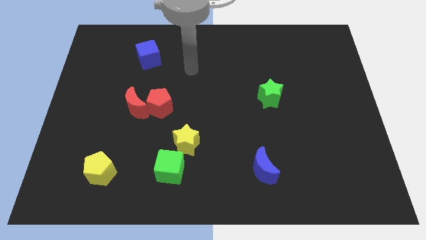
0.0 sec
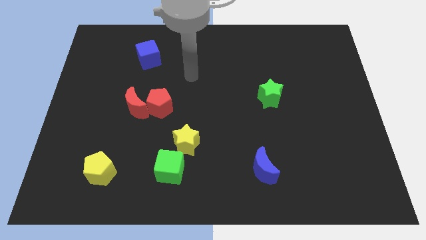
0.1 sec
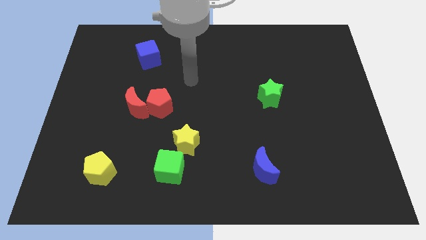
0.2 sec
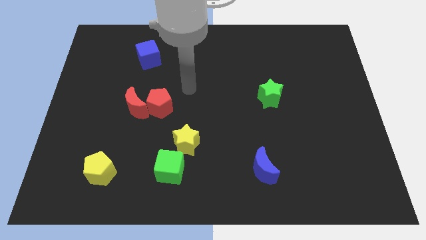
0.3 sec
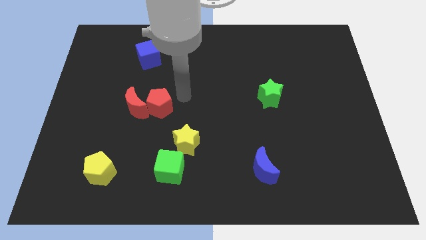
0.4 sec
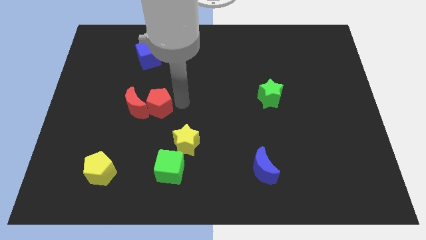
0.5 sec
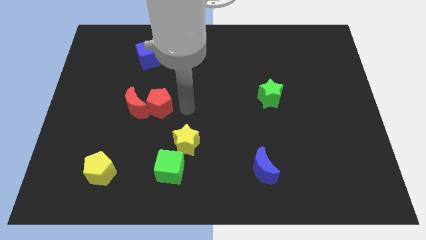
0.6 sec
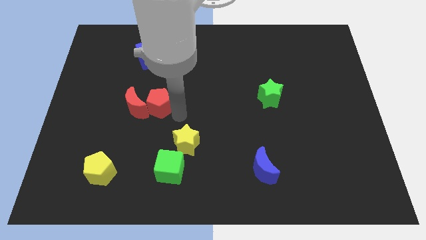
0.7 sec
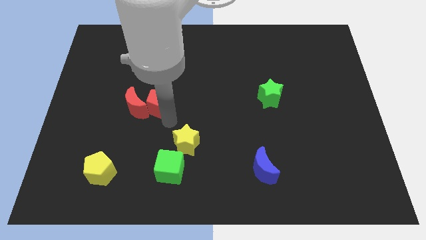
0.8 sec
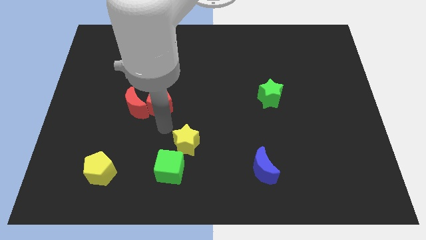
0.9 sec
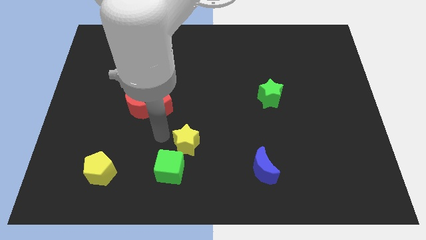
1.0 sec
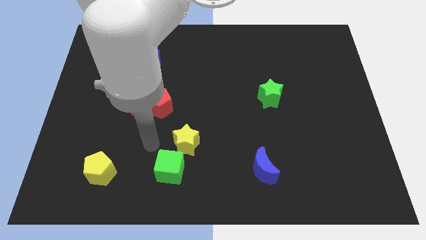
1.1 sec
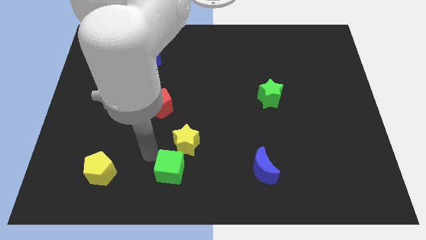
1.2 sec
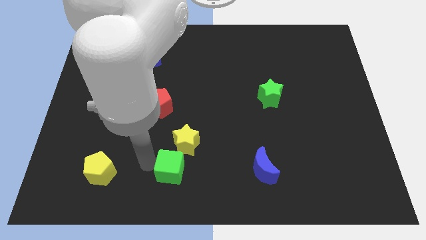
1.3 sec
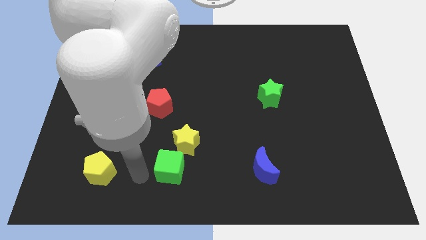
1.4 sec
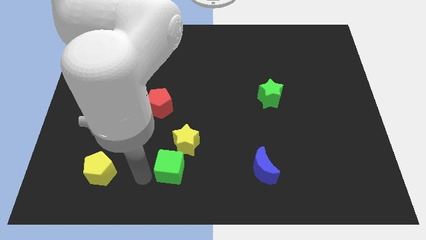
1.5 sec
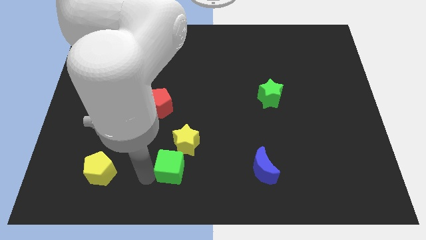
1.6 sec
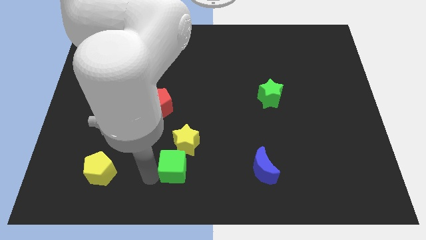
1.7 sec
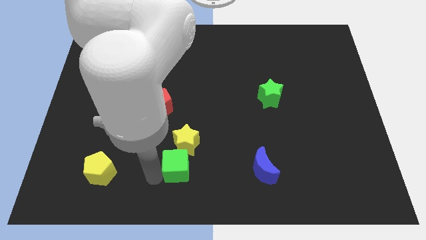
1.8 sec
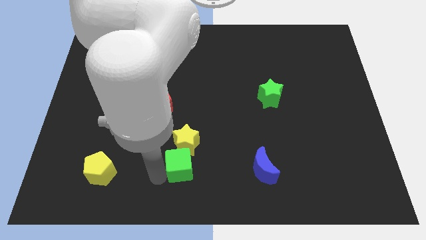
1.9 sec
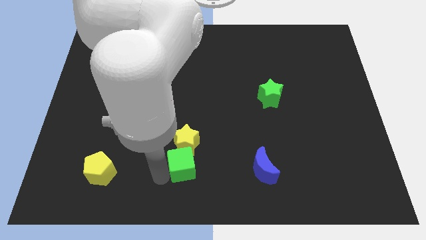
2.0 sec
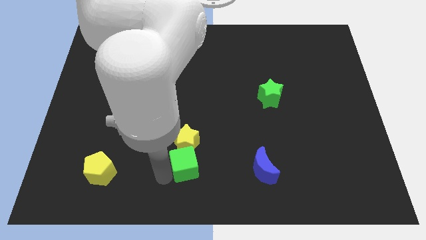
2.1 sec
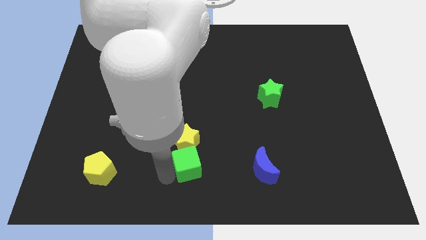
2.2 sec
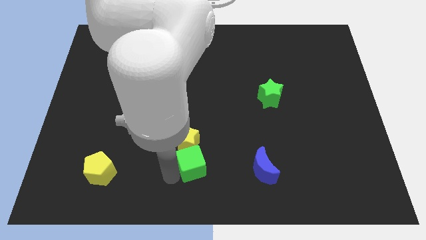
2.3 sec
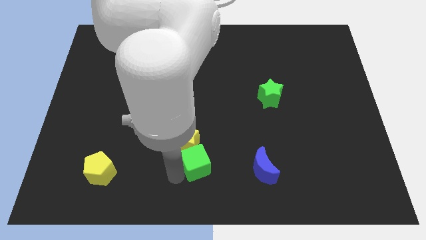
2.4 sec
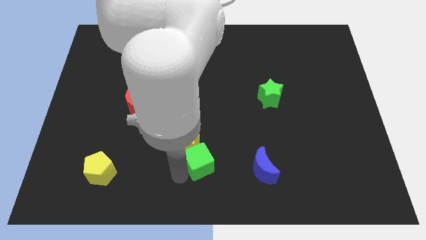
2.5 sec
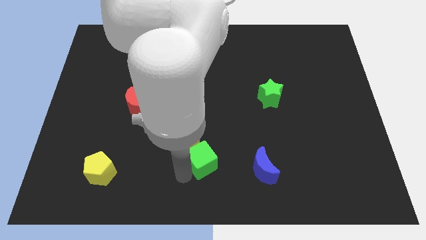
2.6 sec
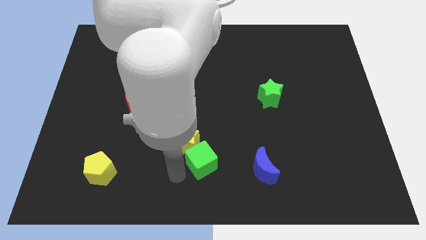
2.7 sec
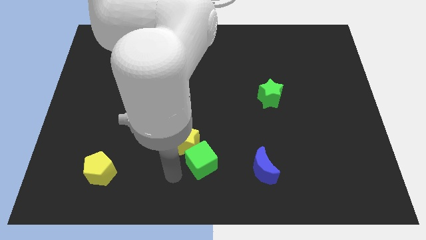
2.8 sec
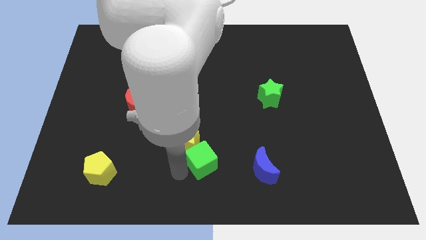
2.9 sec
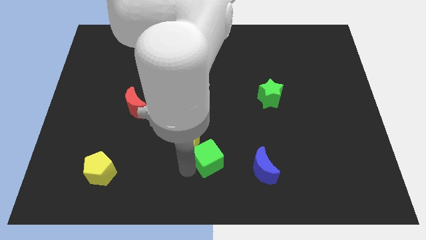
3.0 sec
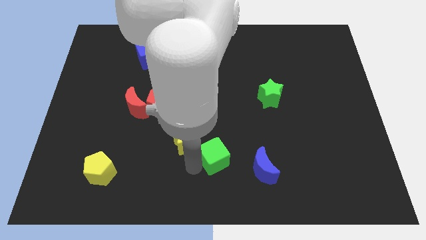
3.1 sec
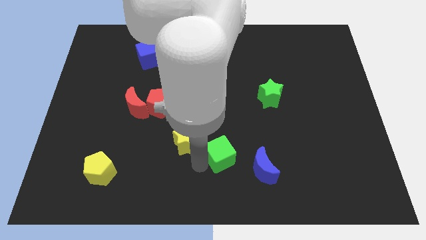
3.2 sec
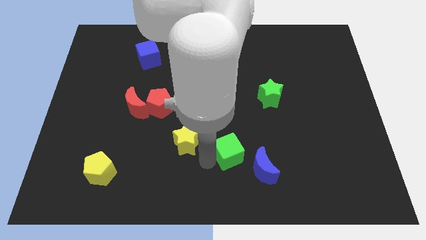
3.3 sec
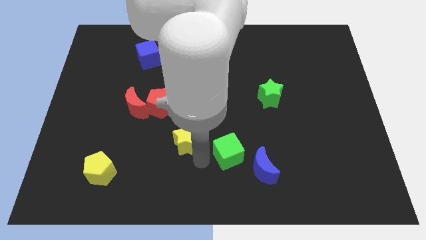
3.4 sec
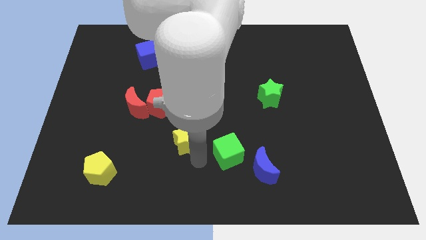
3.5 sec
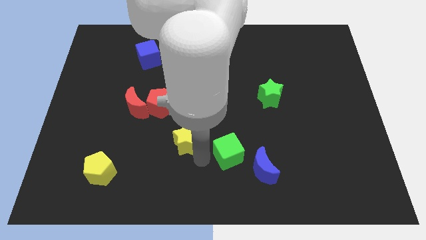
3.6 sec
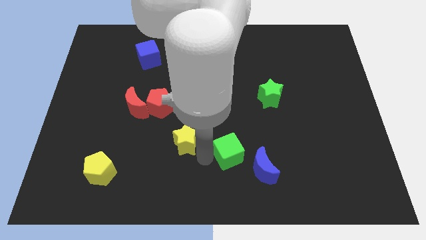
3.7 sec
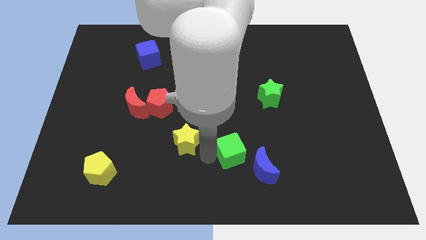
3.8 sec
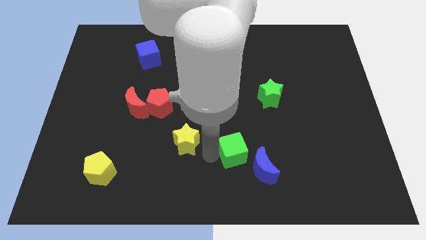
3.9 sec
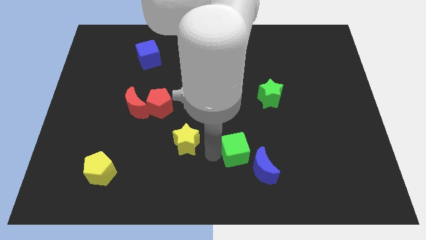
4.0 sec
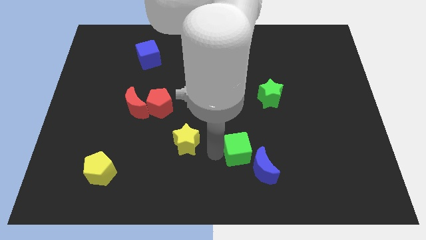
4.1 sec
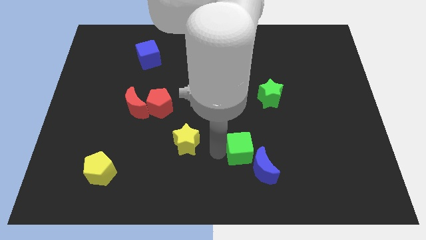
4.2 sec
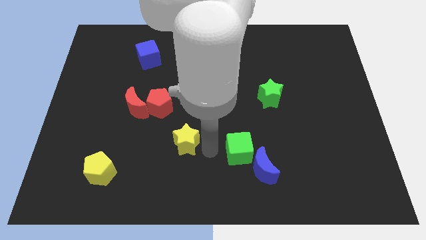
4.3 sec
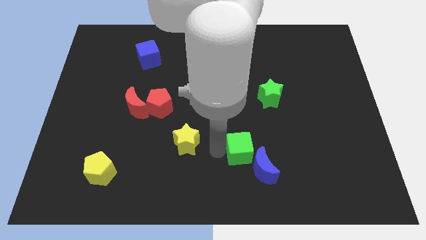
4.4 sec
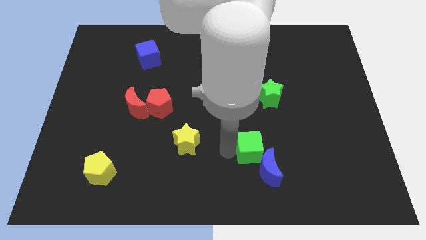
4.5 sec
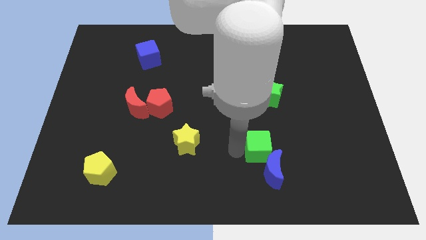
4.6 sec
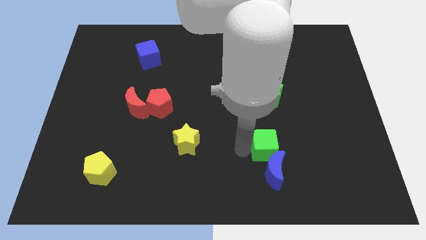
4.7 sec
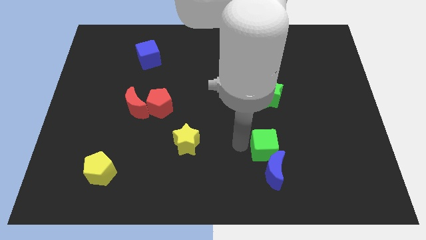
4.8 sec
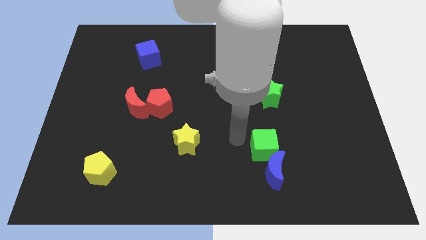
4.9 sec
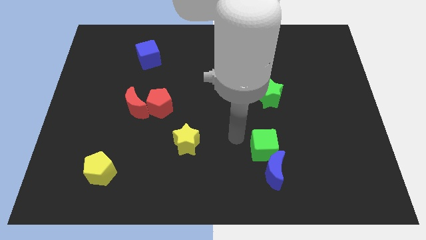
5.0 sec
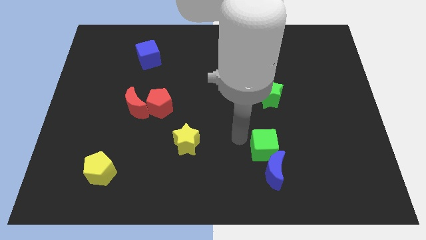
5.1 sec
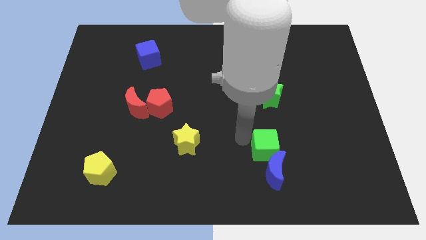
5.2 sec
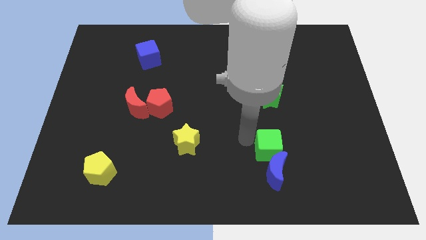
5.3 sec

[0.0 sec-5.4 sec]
slide the green cube right

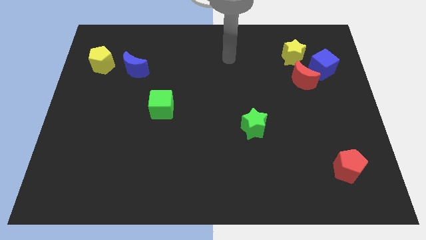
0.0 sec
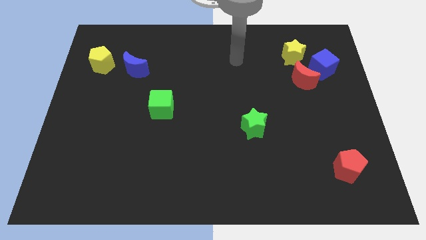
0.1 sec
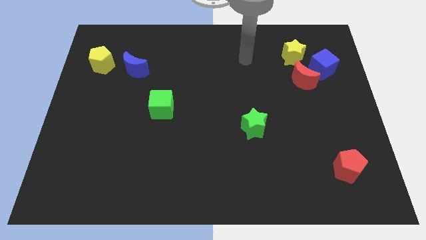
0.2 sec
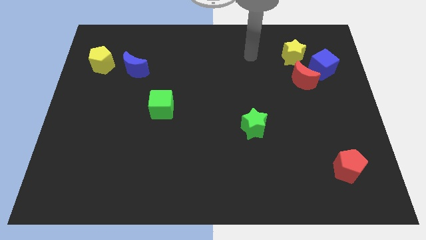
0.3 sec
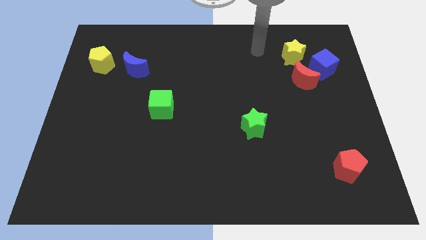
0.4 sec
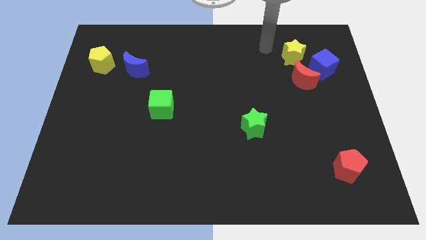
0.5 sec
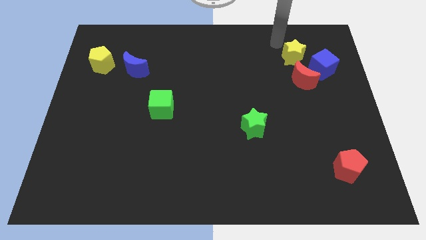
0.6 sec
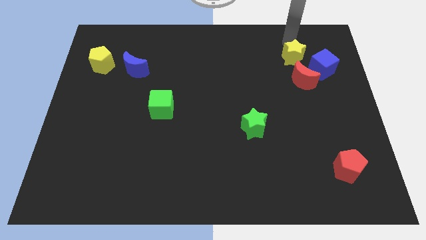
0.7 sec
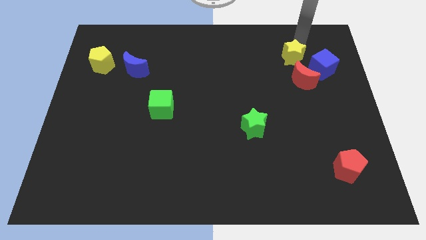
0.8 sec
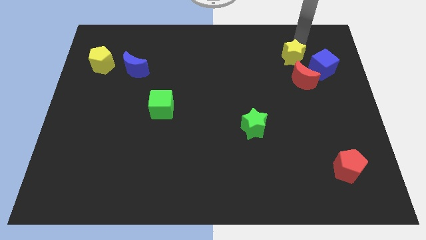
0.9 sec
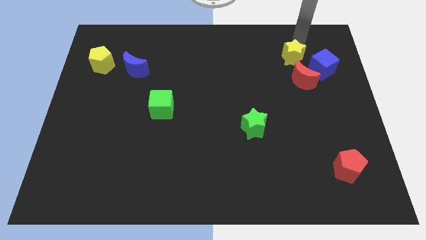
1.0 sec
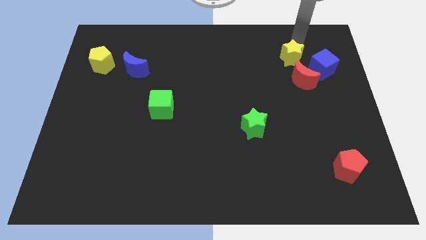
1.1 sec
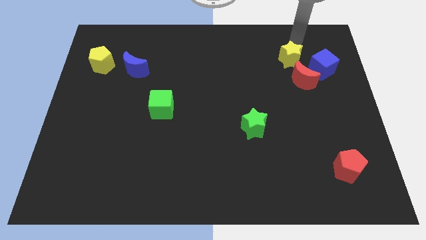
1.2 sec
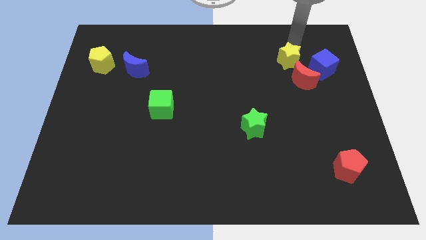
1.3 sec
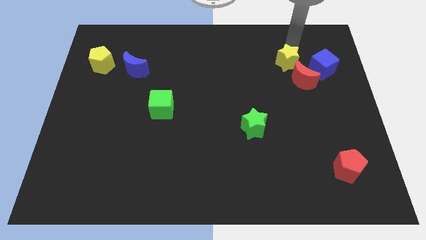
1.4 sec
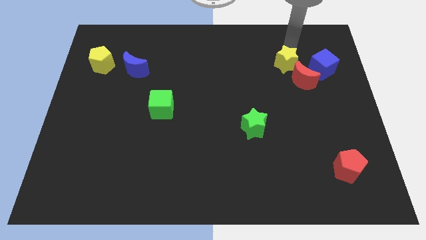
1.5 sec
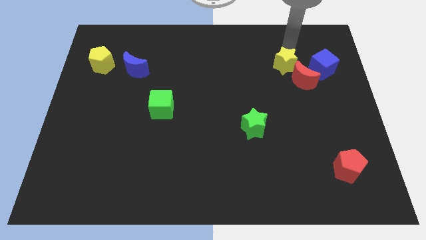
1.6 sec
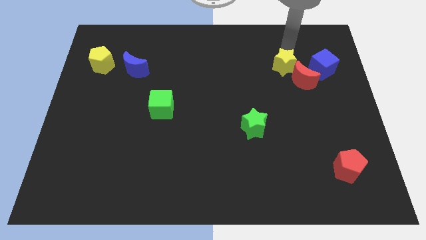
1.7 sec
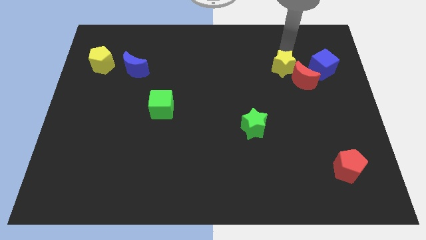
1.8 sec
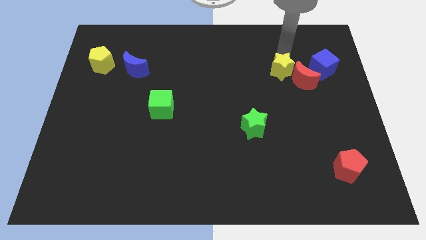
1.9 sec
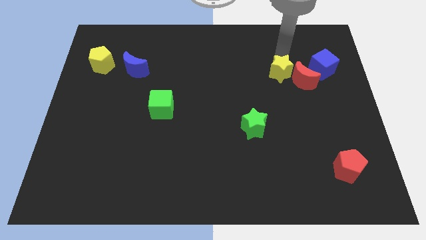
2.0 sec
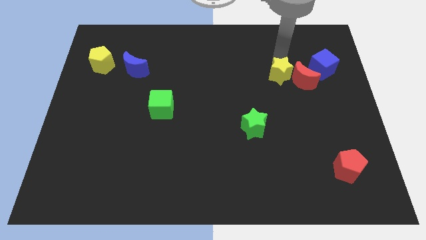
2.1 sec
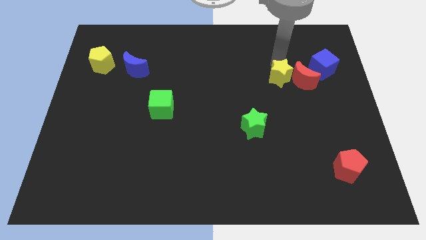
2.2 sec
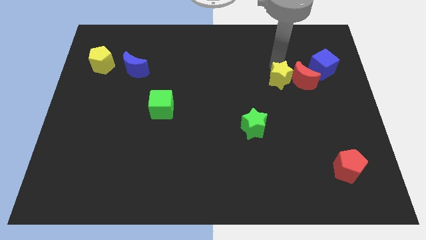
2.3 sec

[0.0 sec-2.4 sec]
slide the yellow star down slightly

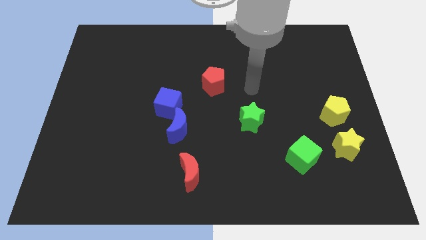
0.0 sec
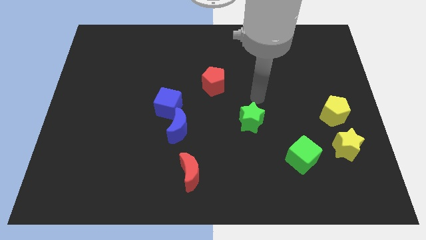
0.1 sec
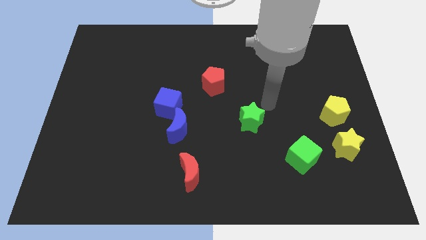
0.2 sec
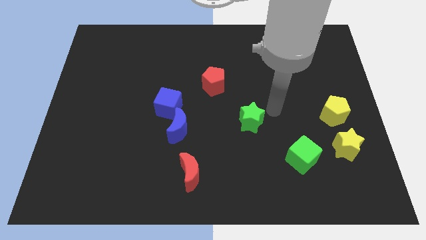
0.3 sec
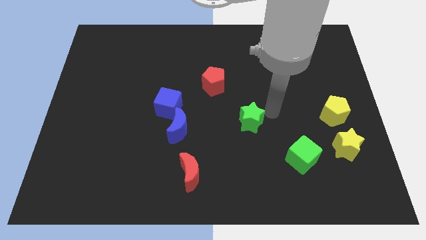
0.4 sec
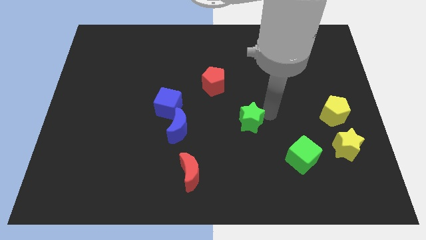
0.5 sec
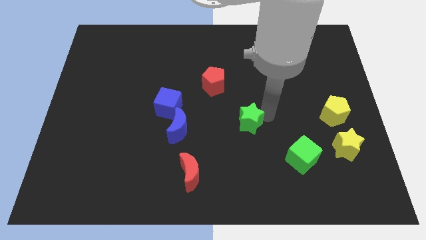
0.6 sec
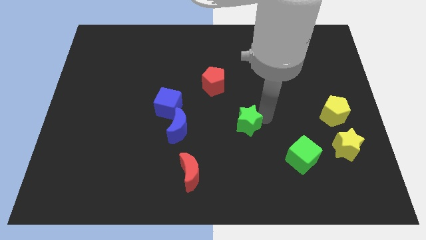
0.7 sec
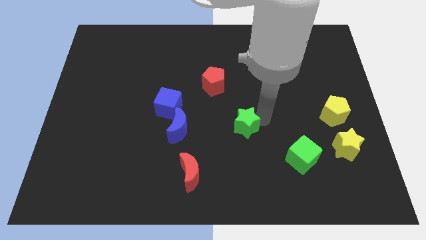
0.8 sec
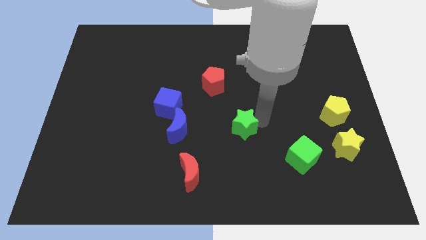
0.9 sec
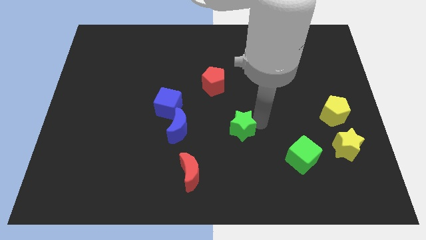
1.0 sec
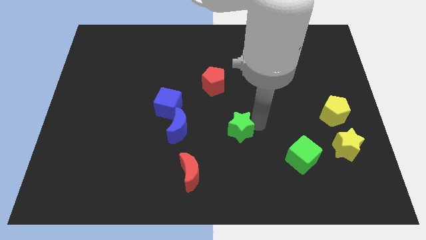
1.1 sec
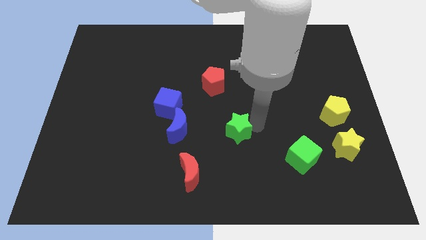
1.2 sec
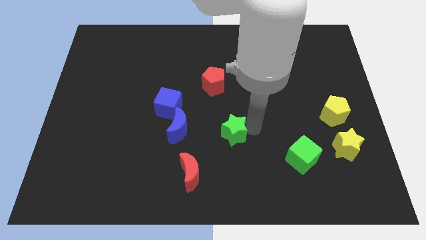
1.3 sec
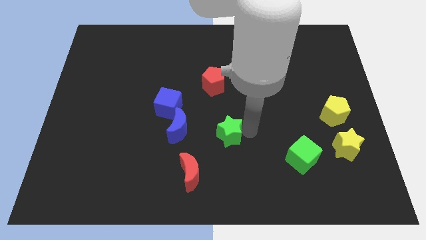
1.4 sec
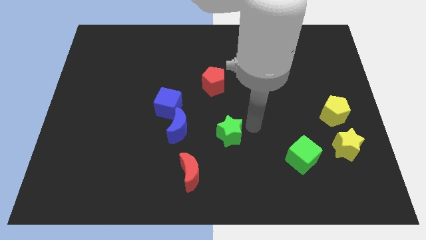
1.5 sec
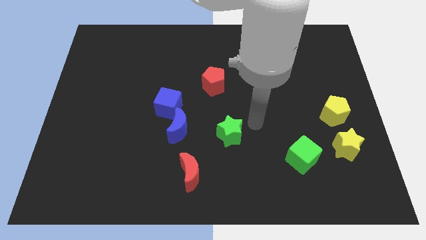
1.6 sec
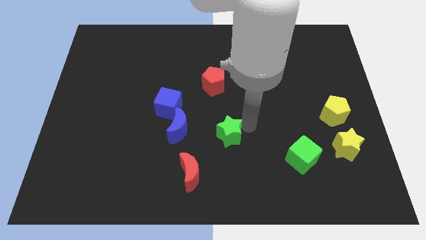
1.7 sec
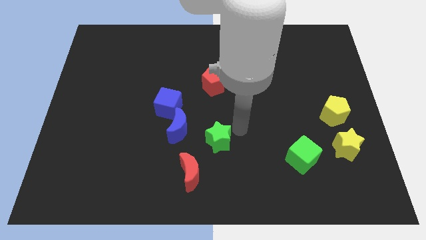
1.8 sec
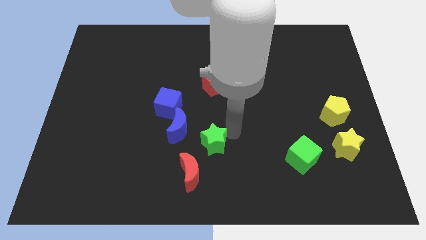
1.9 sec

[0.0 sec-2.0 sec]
slide the green star left slightly
